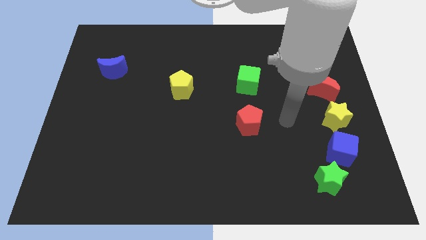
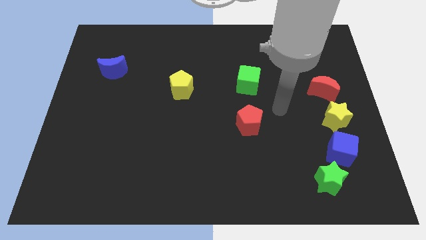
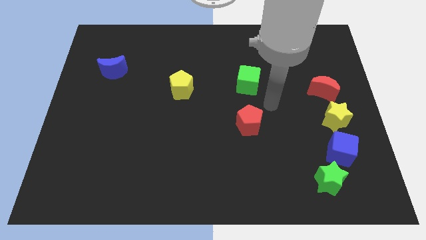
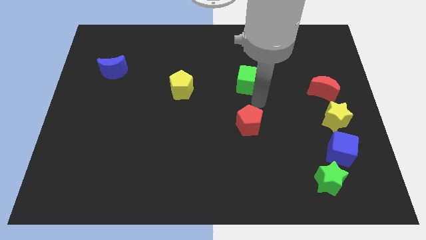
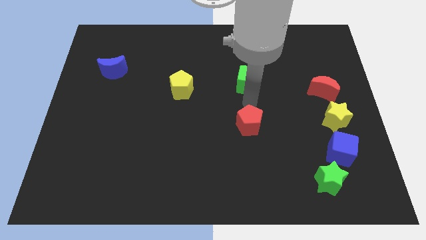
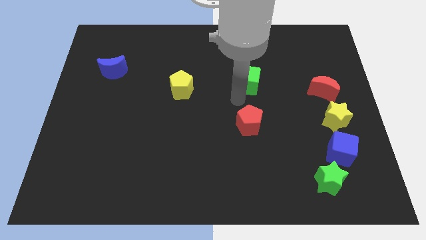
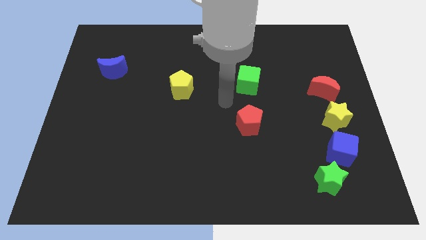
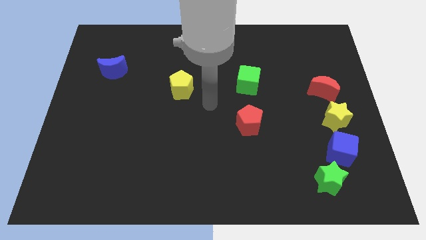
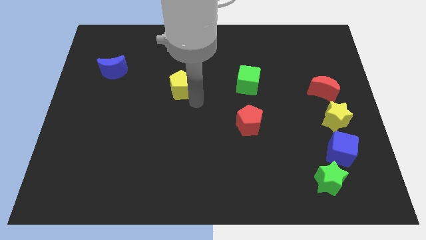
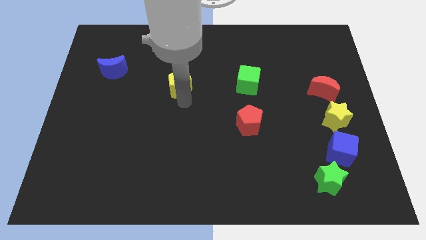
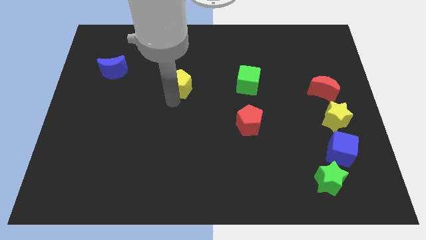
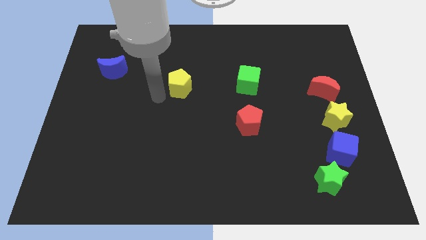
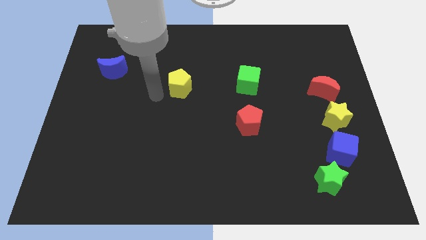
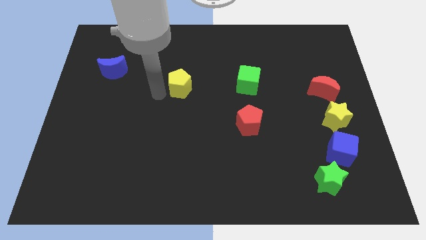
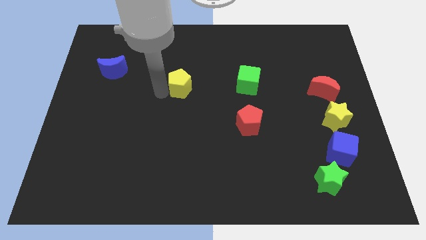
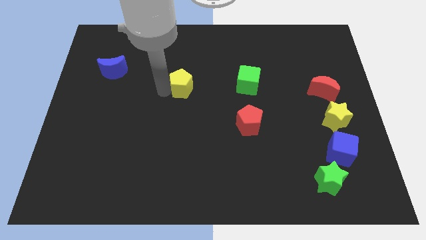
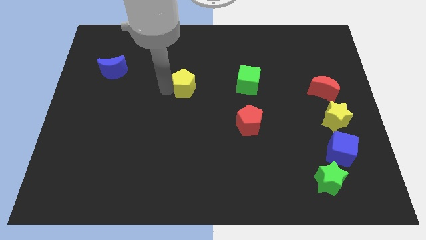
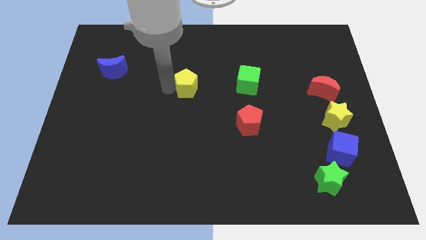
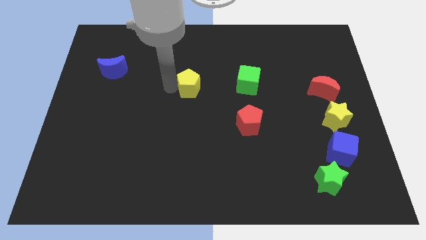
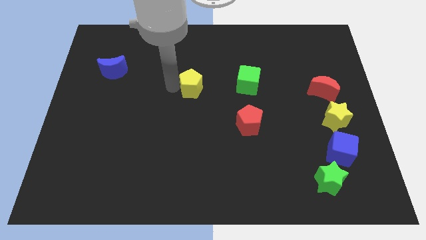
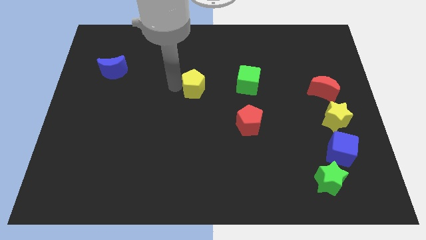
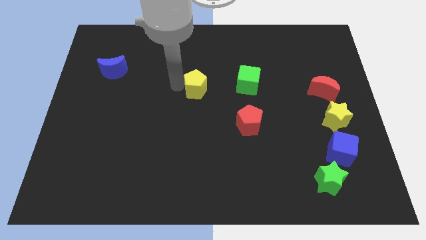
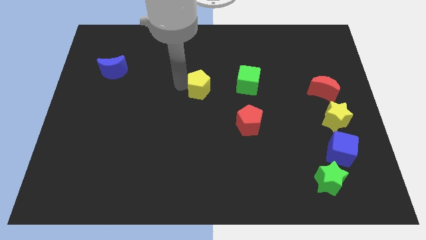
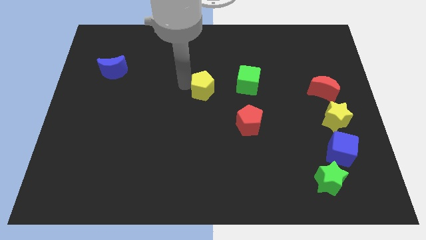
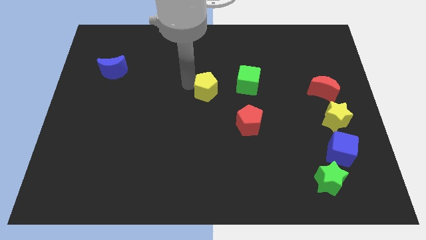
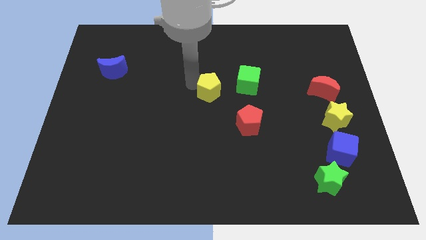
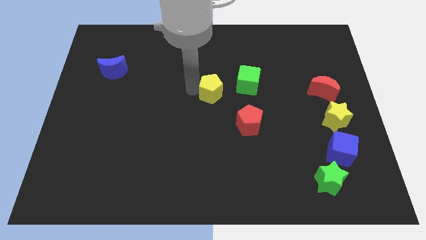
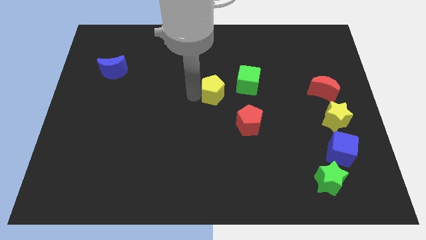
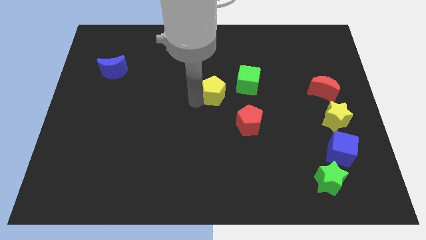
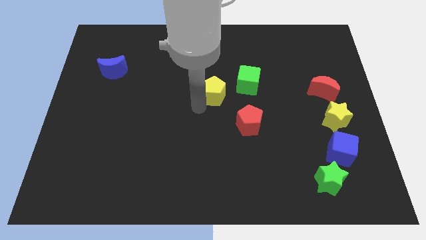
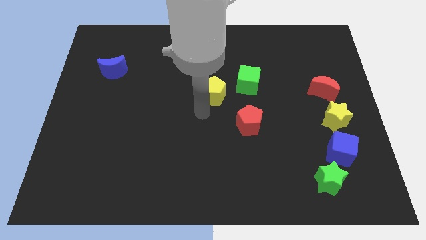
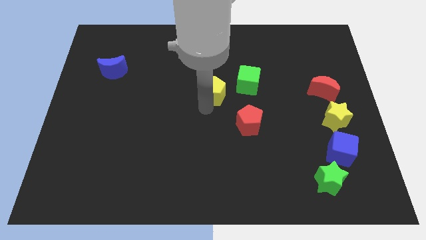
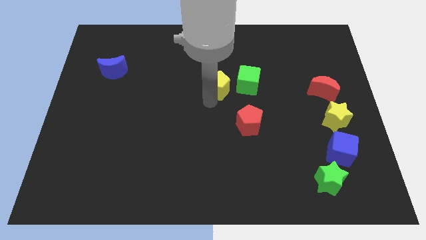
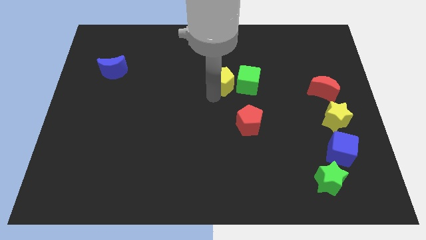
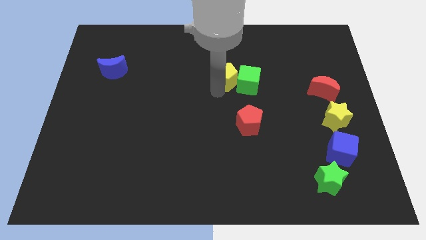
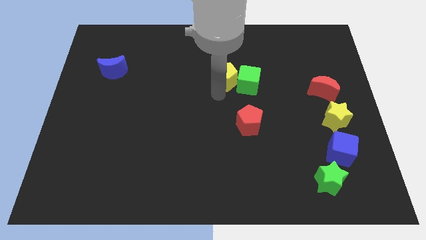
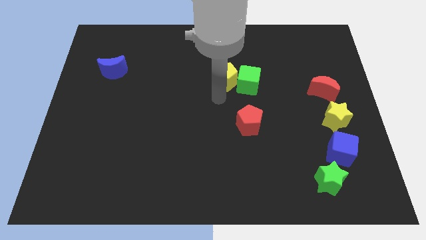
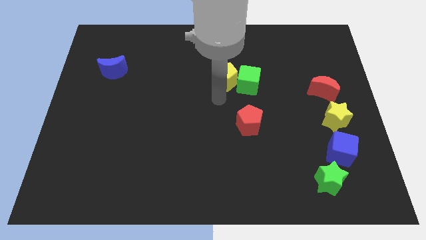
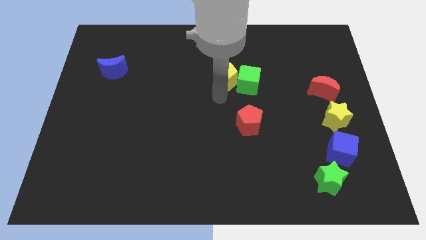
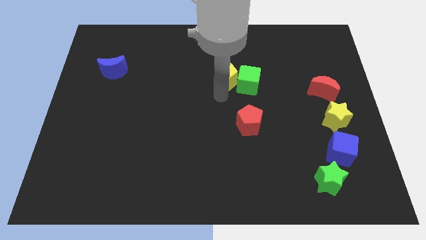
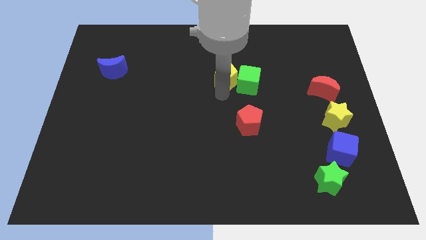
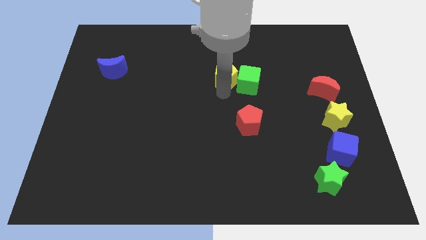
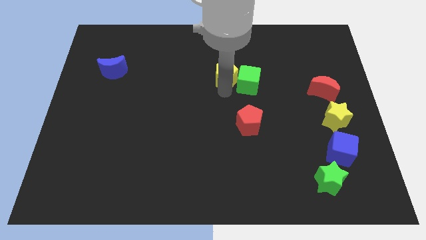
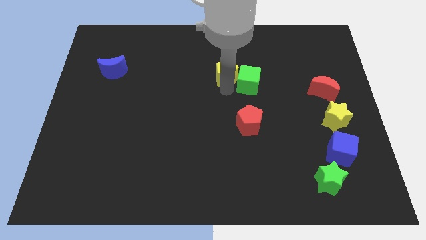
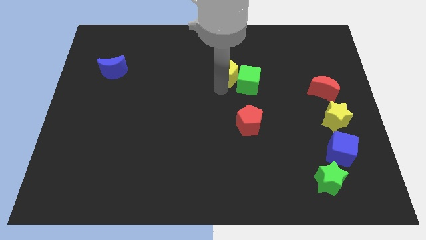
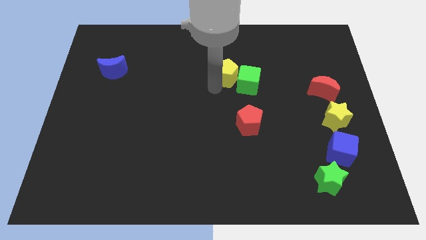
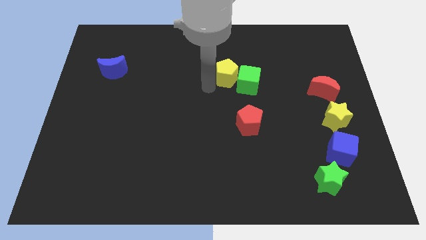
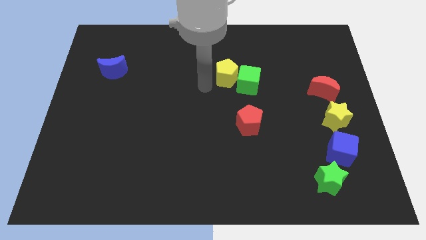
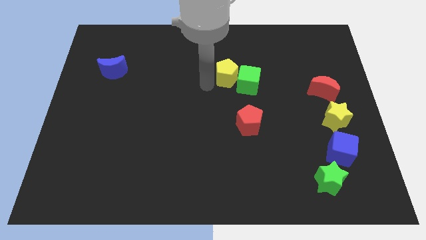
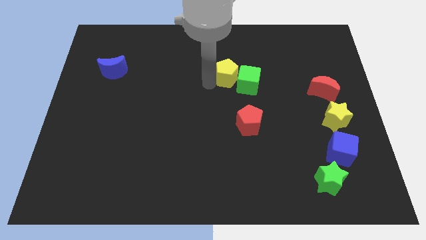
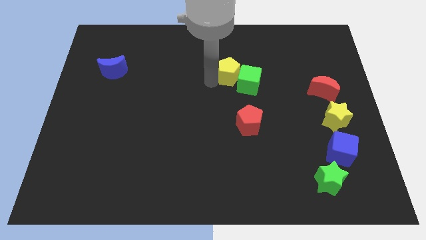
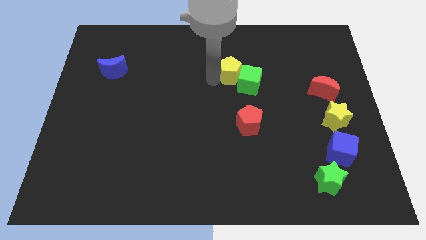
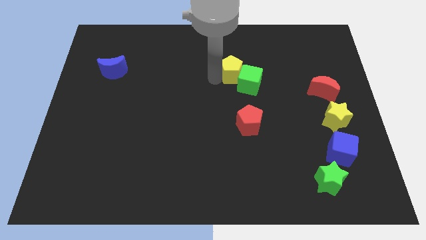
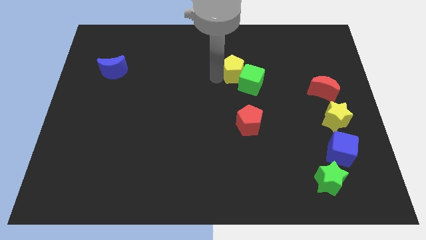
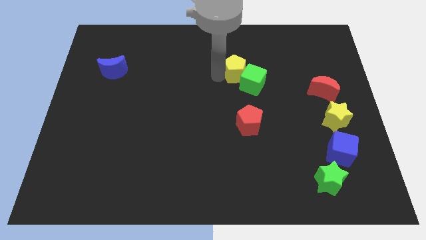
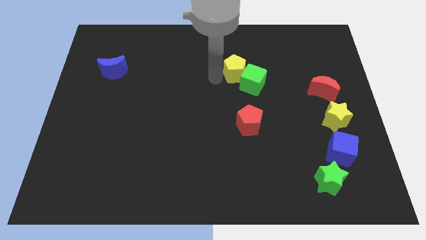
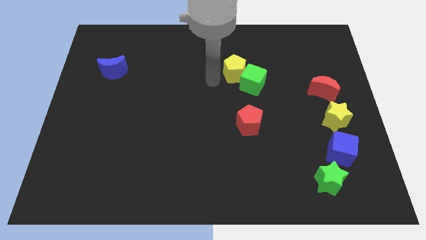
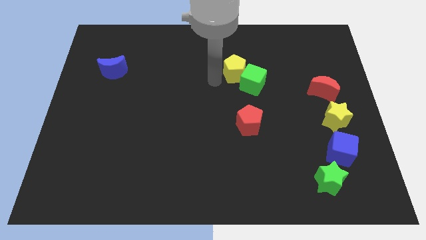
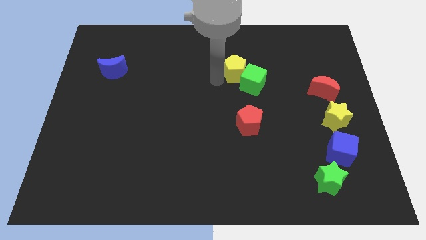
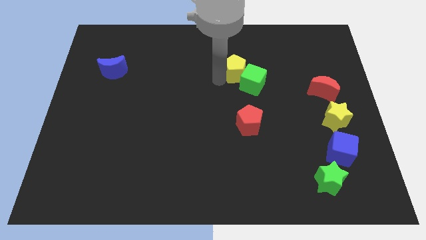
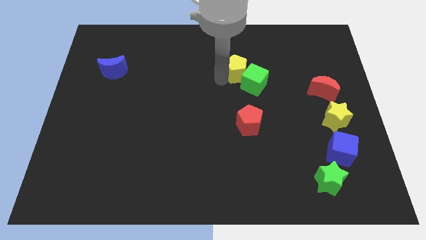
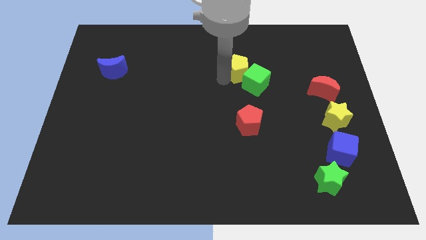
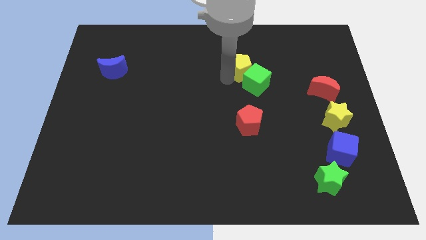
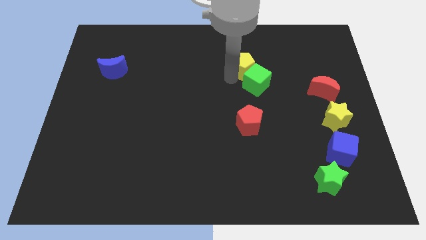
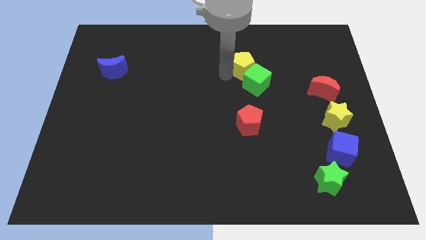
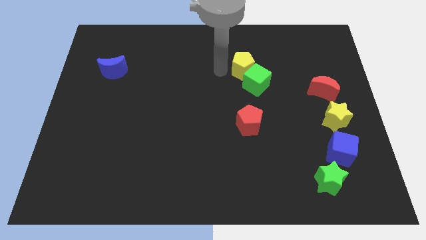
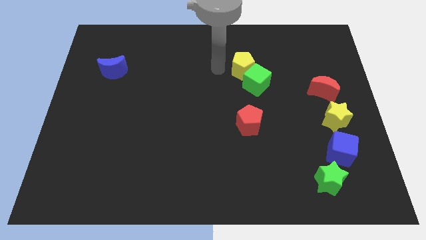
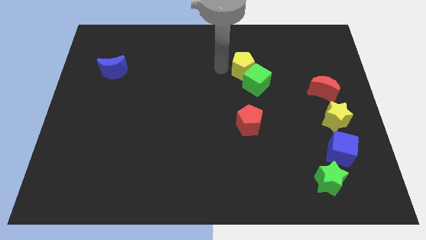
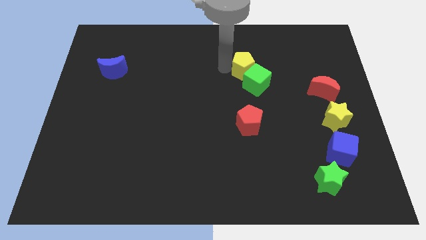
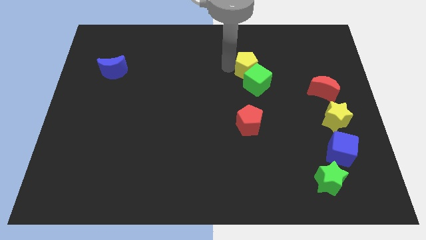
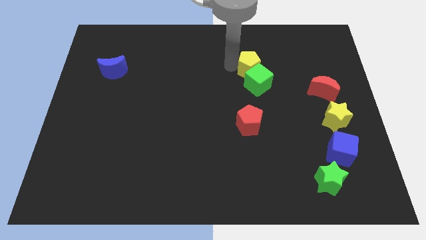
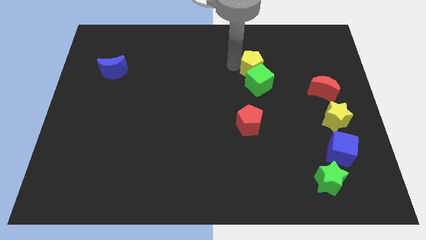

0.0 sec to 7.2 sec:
push the yellow pentagon to the top right of the green cube

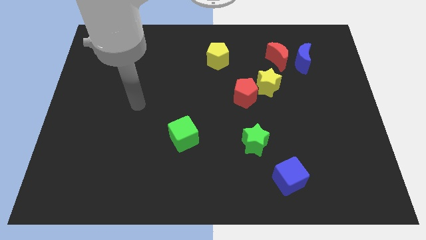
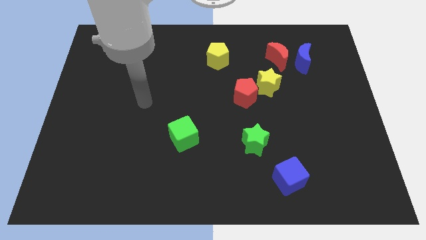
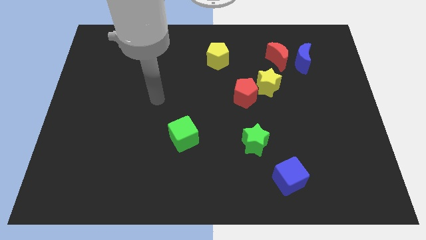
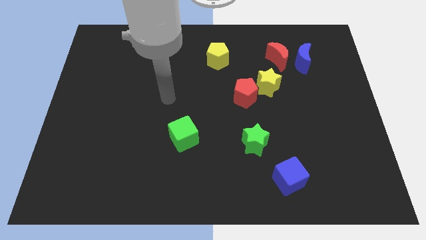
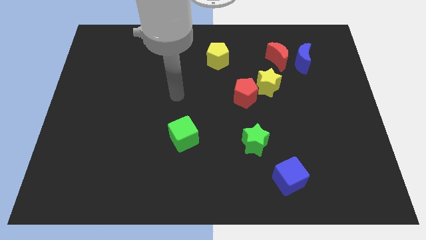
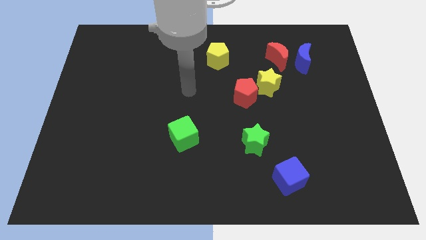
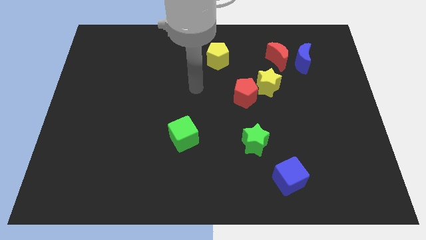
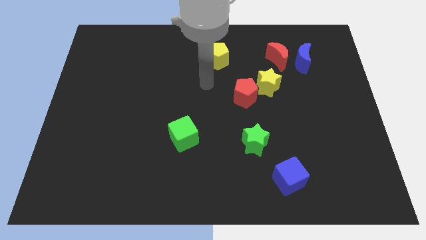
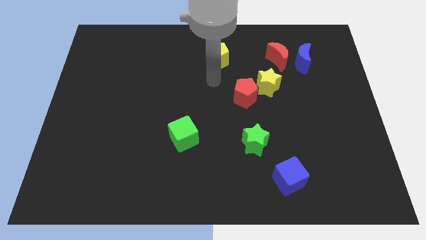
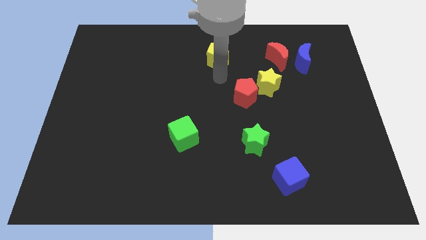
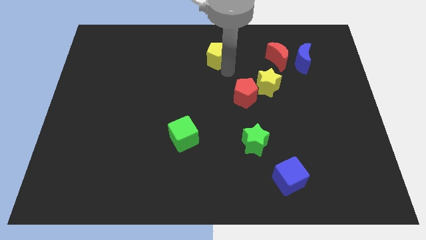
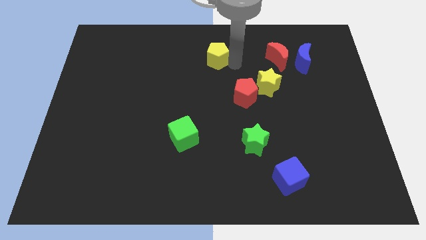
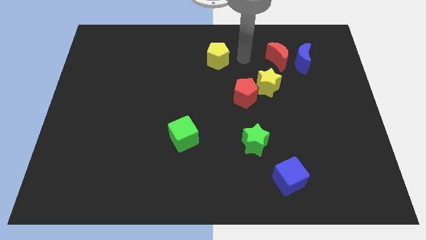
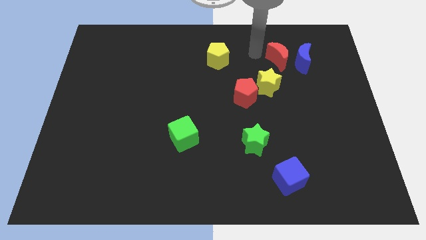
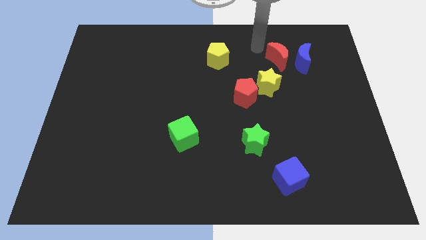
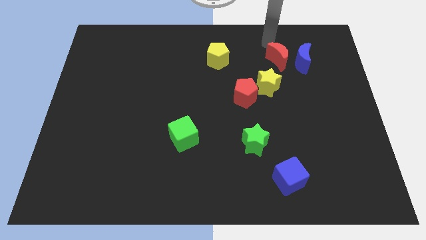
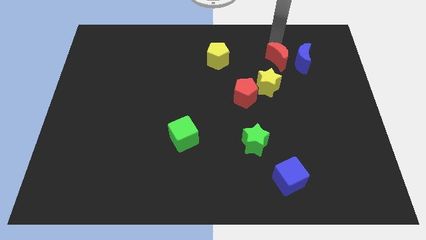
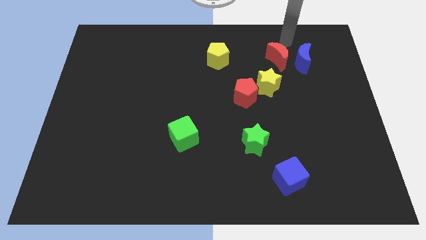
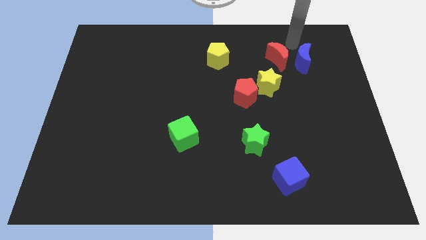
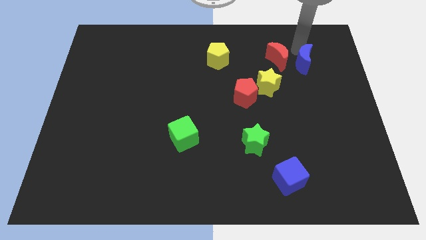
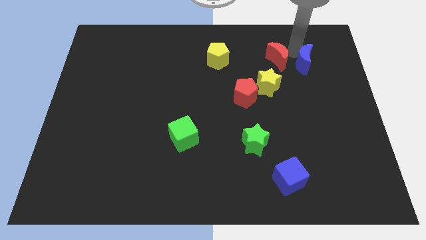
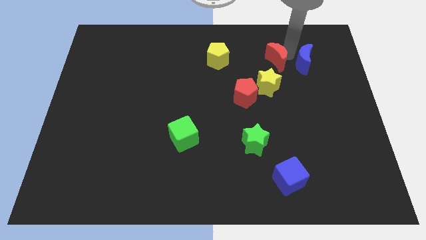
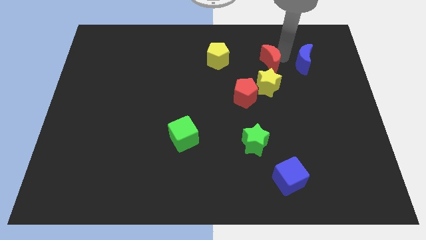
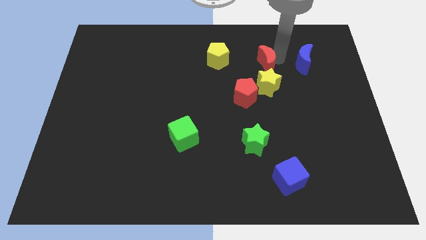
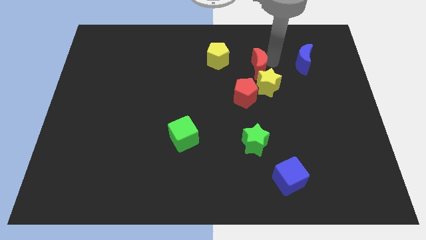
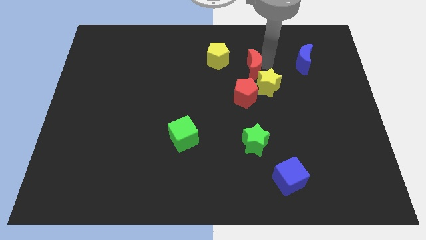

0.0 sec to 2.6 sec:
move the red moon to the bottom right of the yellow pentagon
